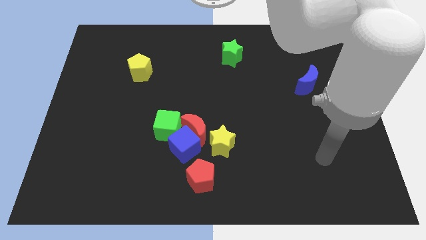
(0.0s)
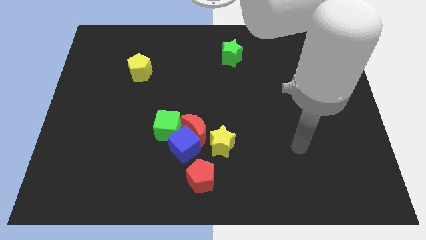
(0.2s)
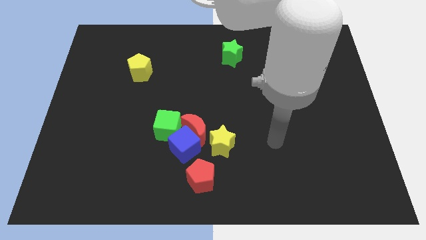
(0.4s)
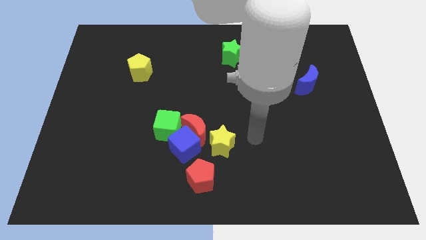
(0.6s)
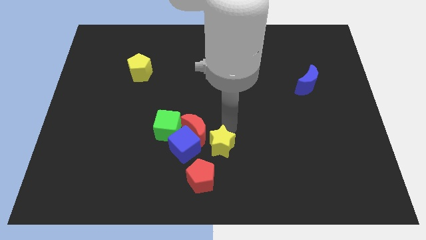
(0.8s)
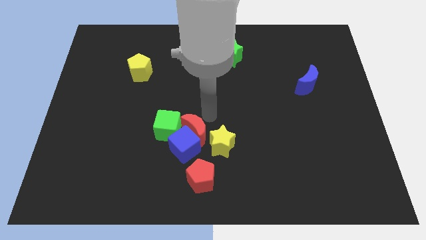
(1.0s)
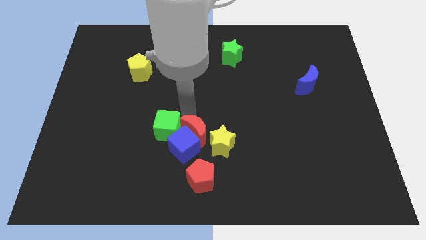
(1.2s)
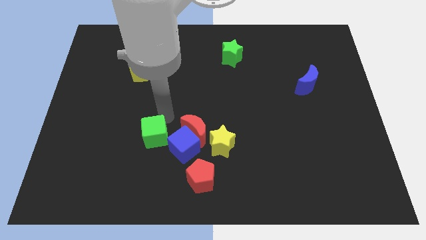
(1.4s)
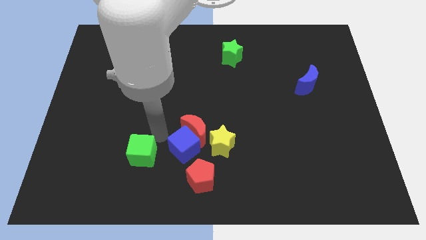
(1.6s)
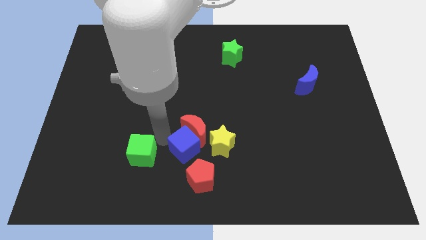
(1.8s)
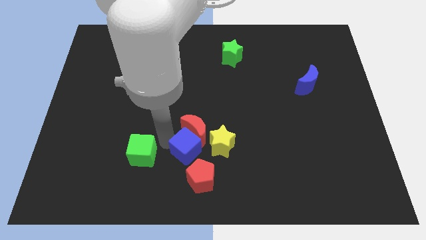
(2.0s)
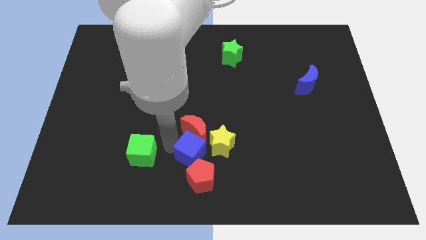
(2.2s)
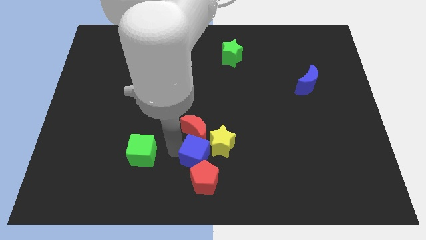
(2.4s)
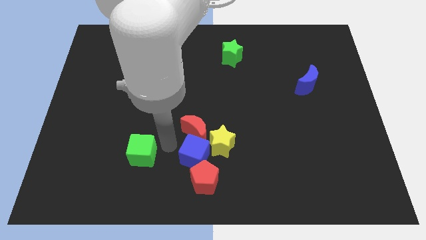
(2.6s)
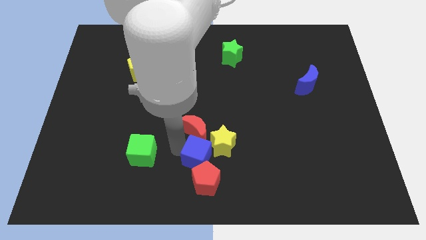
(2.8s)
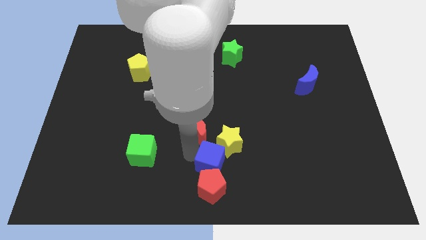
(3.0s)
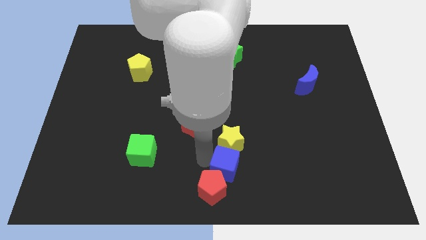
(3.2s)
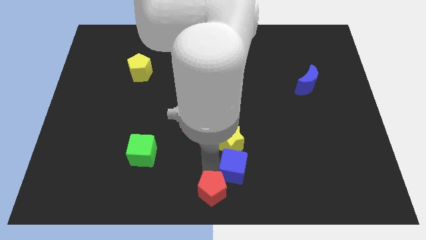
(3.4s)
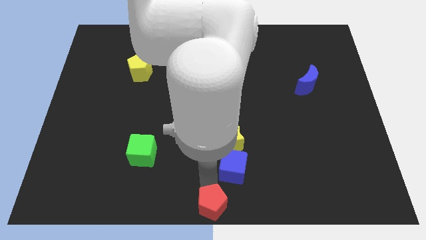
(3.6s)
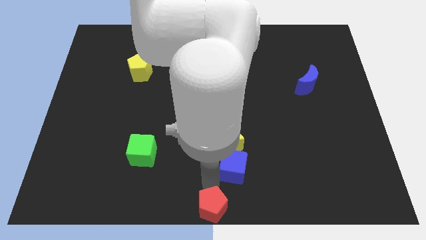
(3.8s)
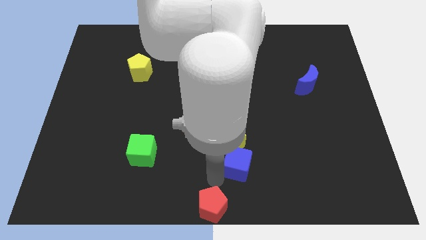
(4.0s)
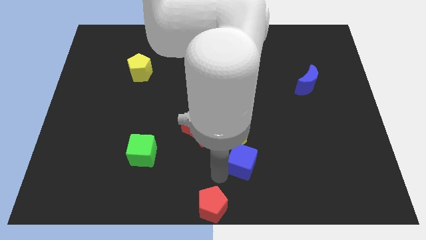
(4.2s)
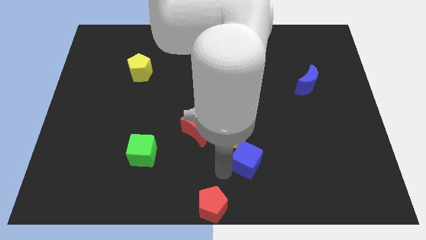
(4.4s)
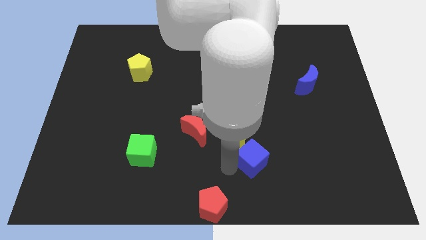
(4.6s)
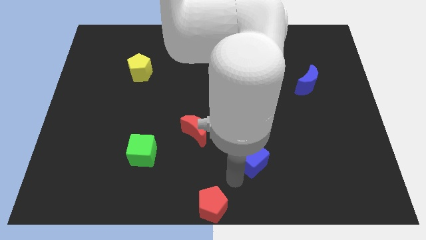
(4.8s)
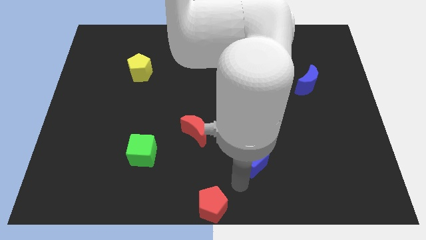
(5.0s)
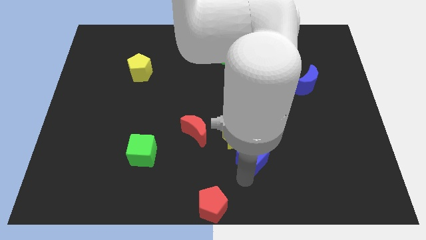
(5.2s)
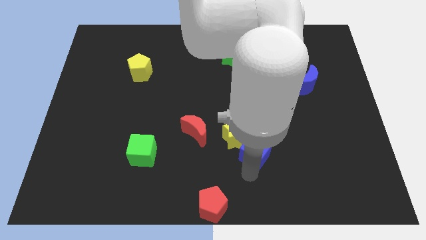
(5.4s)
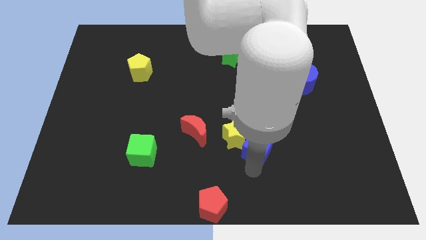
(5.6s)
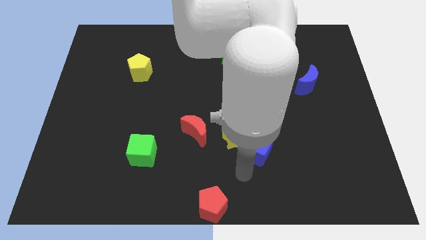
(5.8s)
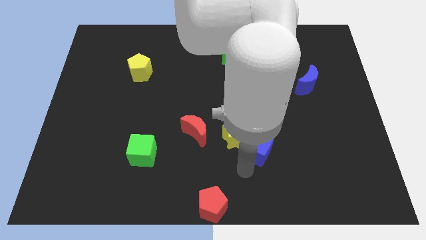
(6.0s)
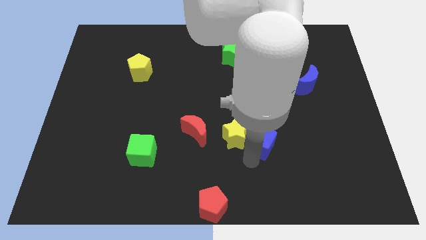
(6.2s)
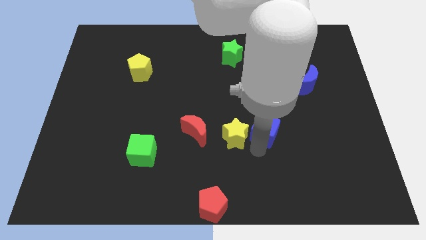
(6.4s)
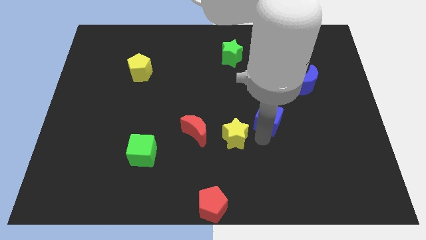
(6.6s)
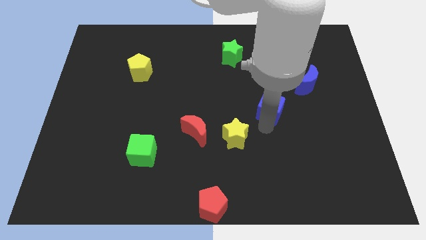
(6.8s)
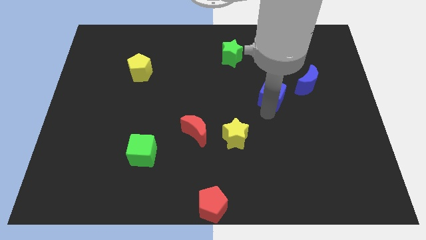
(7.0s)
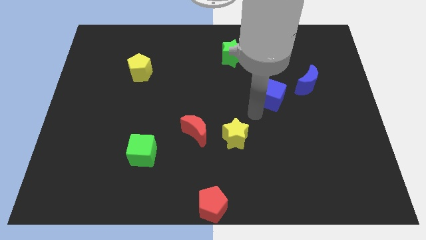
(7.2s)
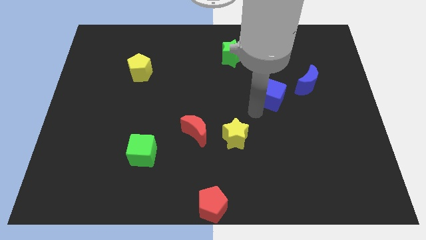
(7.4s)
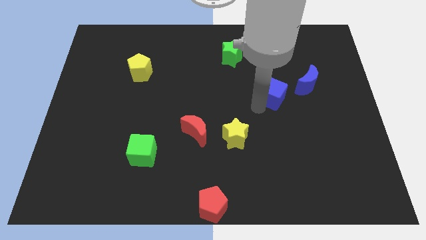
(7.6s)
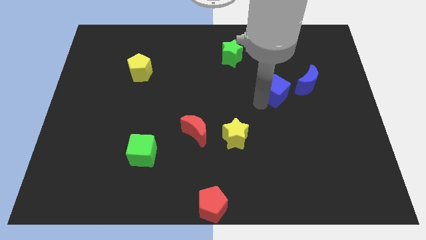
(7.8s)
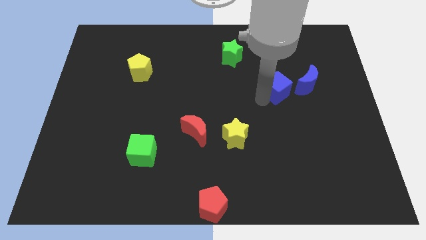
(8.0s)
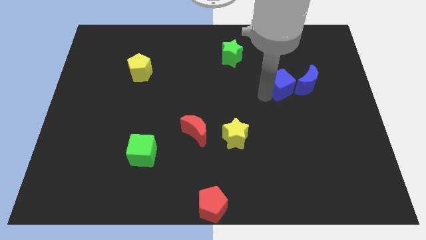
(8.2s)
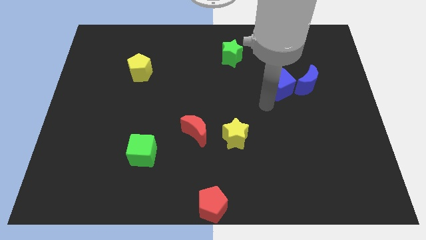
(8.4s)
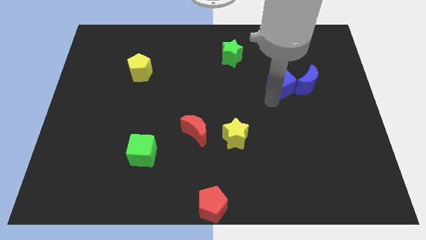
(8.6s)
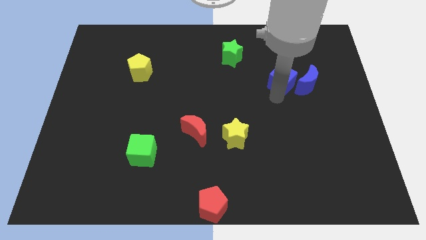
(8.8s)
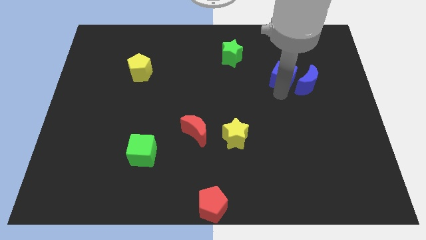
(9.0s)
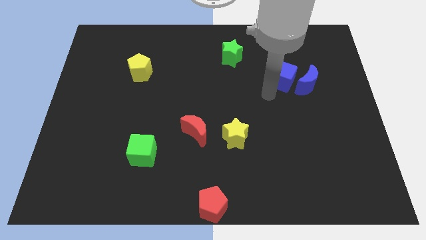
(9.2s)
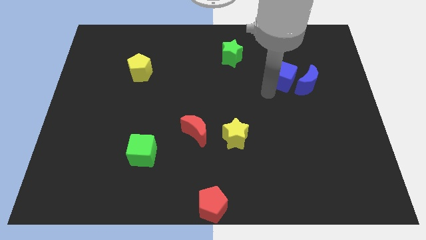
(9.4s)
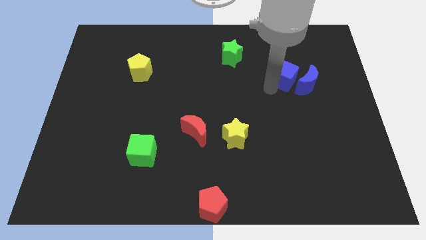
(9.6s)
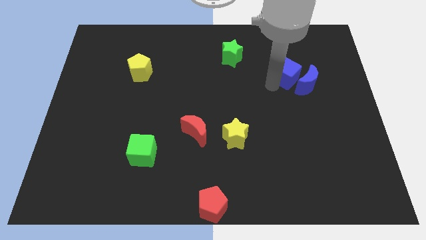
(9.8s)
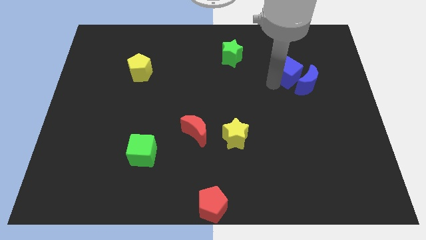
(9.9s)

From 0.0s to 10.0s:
move the blue cube to the top of the blue moon

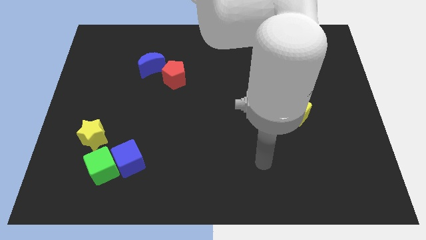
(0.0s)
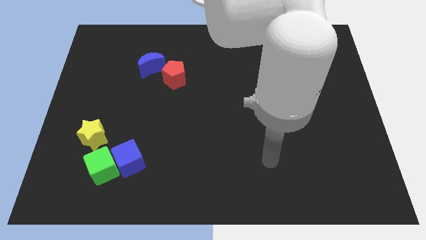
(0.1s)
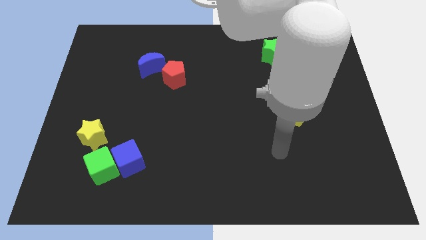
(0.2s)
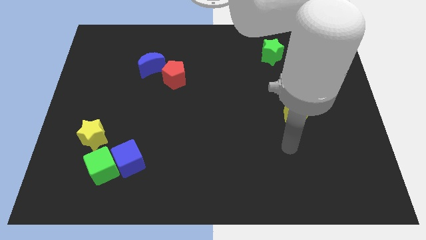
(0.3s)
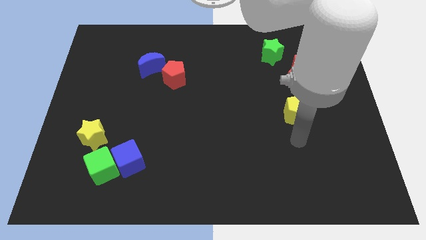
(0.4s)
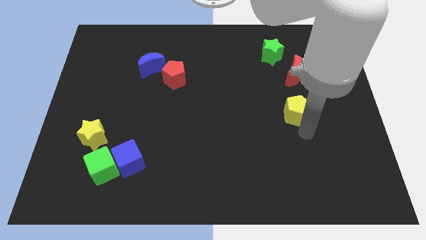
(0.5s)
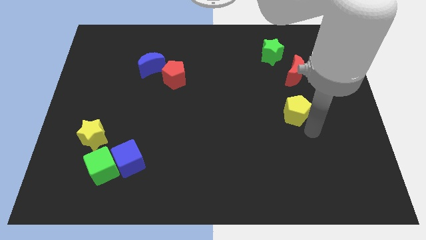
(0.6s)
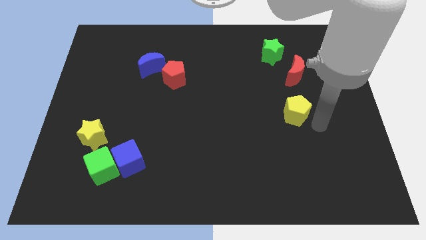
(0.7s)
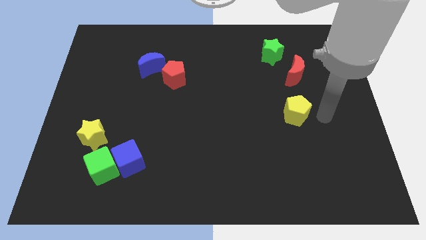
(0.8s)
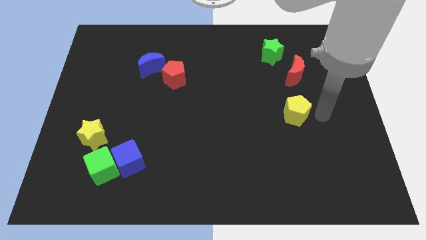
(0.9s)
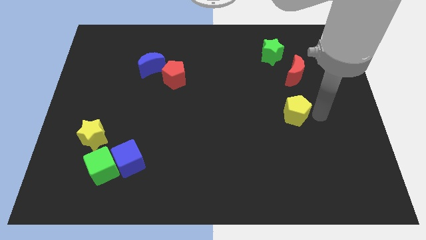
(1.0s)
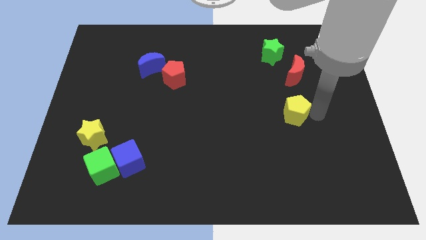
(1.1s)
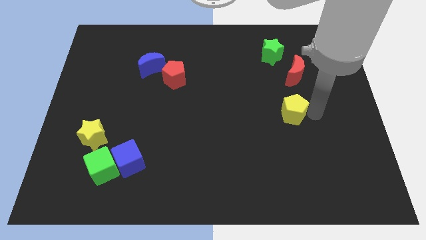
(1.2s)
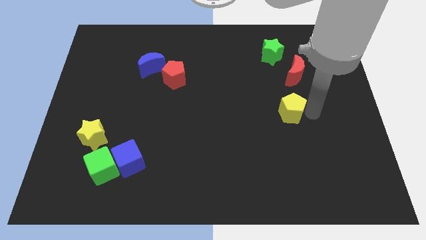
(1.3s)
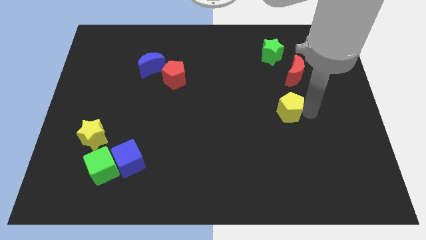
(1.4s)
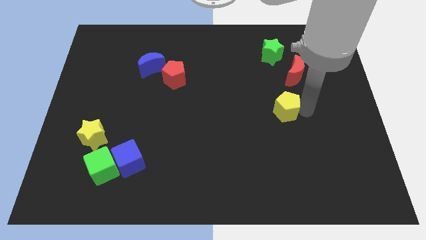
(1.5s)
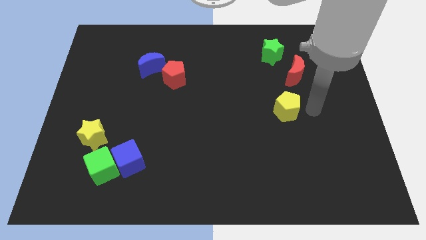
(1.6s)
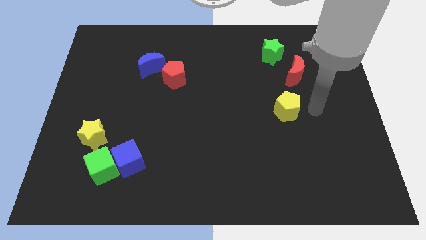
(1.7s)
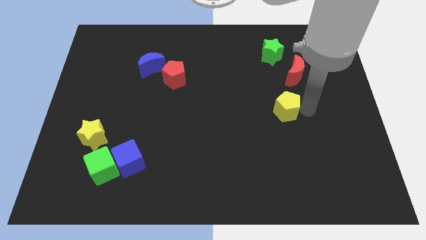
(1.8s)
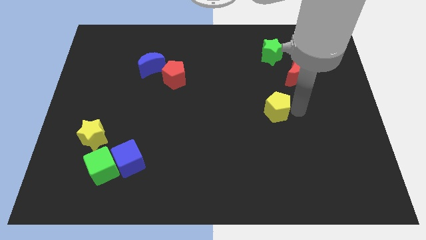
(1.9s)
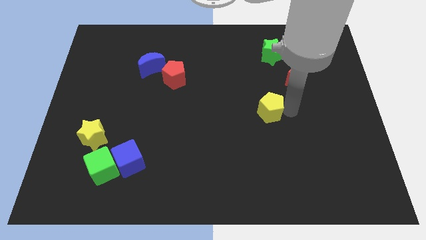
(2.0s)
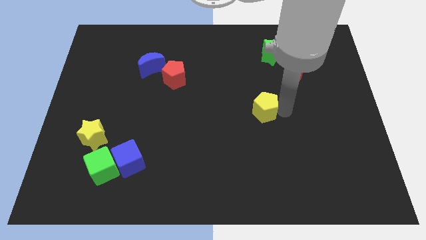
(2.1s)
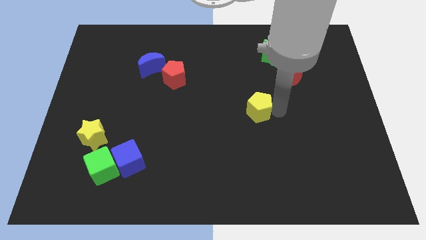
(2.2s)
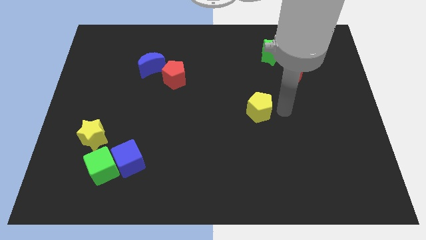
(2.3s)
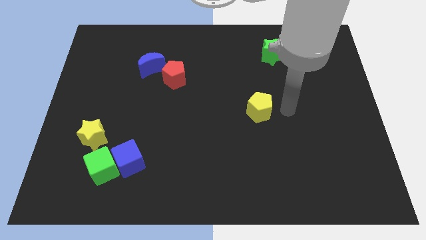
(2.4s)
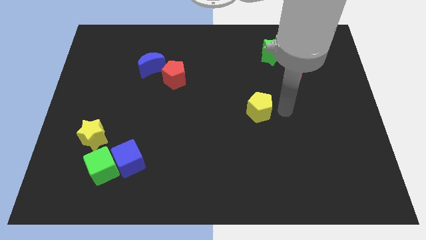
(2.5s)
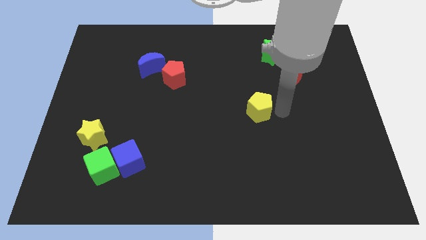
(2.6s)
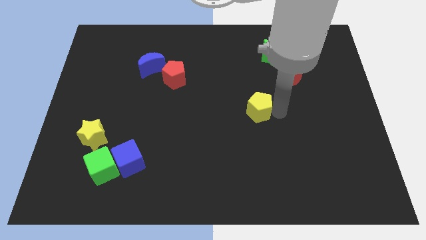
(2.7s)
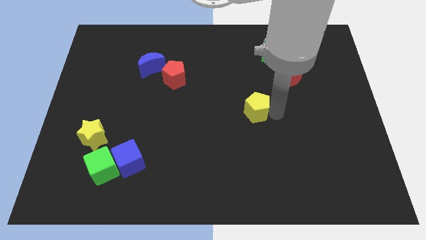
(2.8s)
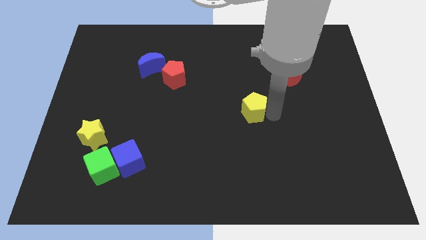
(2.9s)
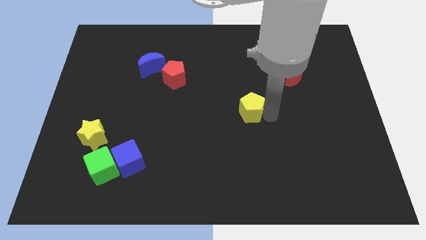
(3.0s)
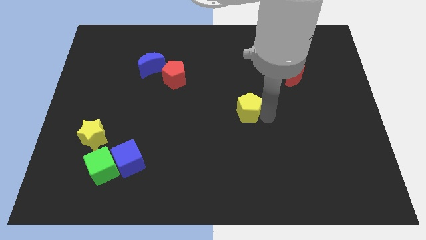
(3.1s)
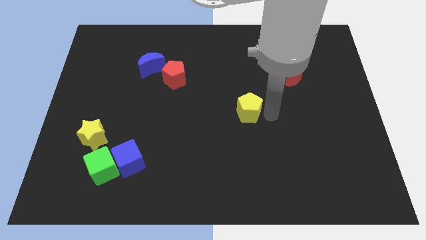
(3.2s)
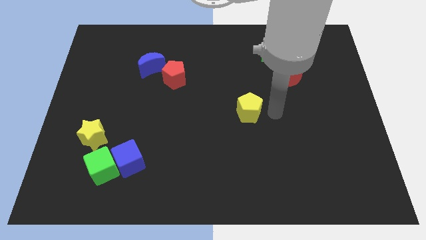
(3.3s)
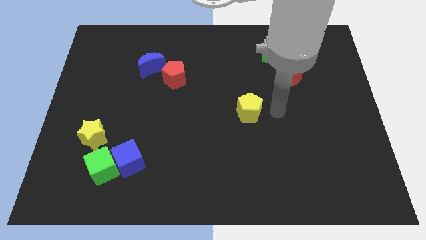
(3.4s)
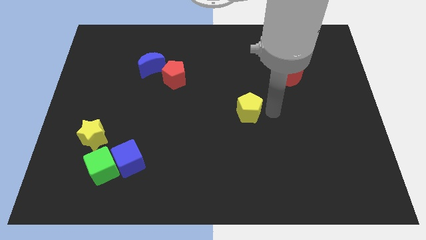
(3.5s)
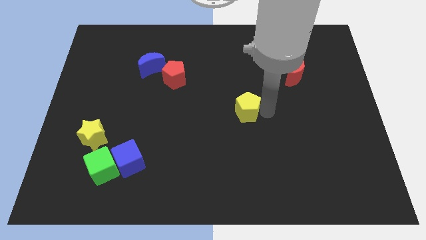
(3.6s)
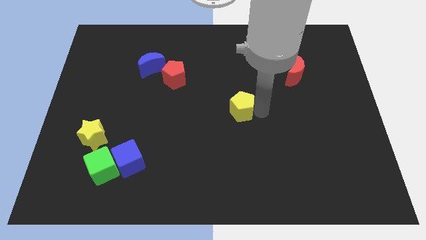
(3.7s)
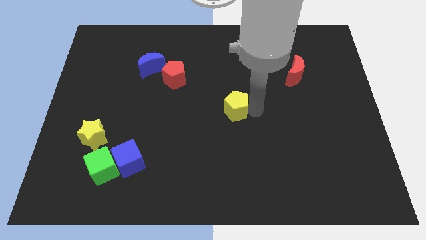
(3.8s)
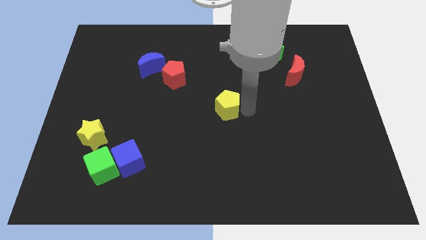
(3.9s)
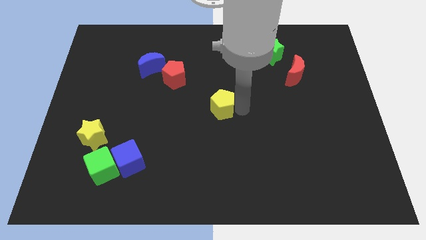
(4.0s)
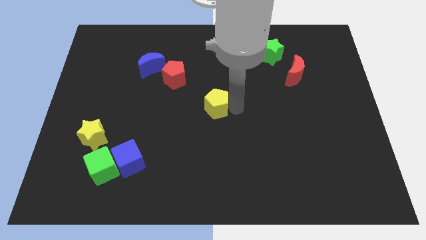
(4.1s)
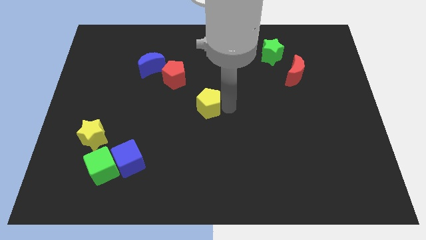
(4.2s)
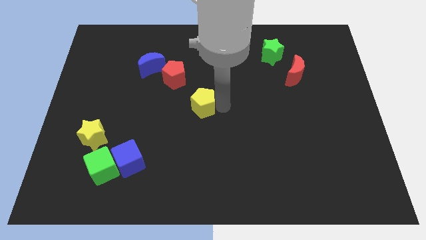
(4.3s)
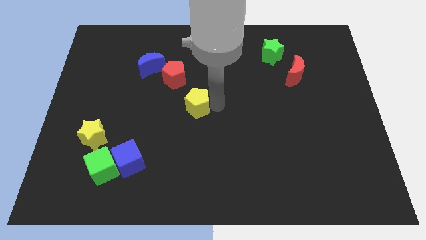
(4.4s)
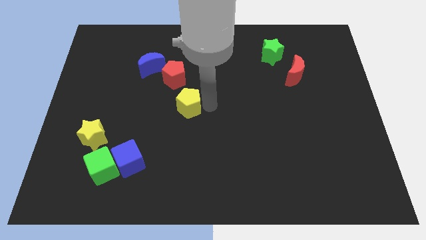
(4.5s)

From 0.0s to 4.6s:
slide the yellow pentagon to the bottom side of the red pentagon
